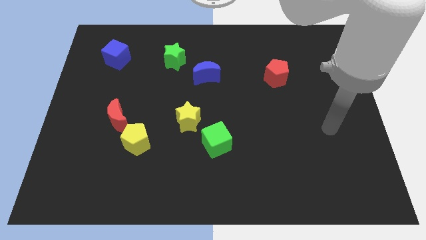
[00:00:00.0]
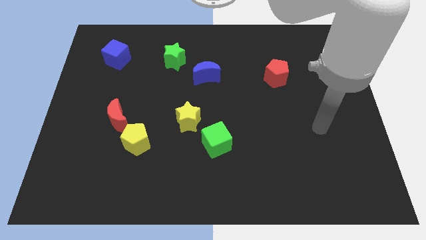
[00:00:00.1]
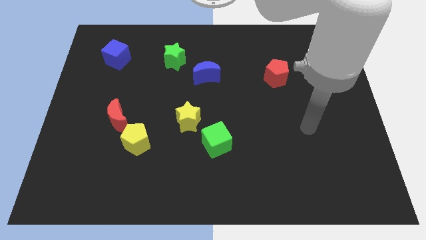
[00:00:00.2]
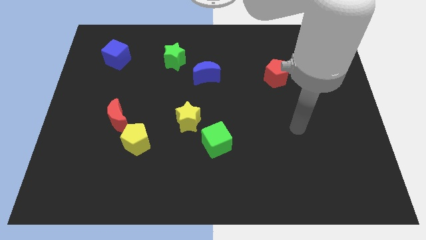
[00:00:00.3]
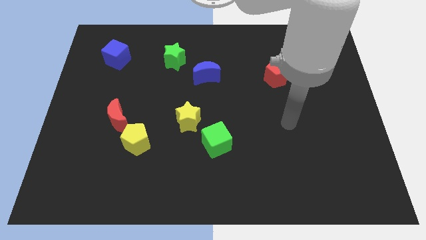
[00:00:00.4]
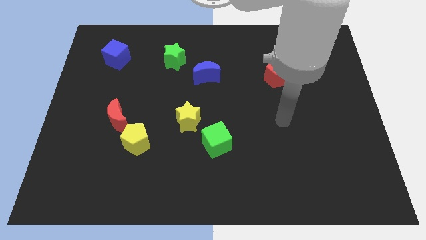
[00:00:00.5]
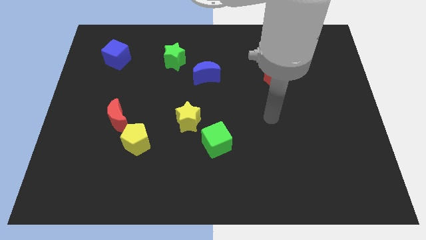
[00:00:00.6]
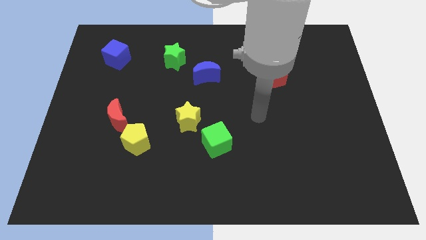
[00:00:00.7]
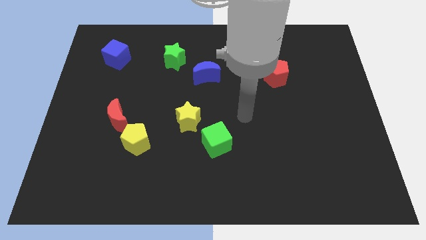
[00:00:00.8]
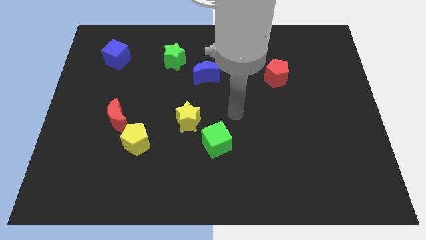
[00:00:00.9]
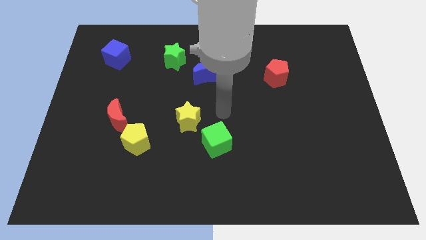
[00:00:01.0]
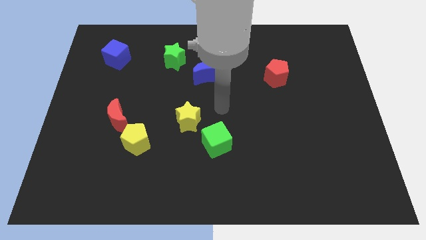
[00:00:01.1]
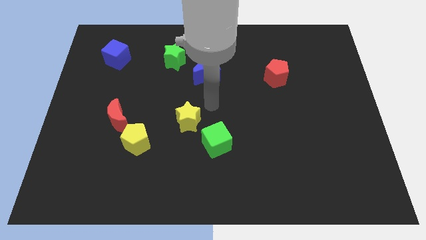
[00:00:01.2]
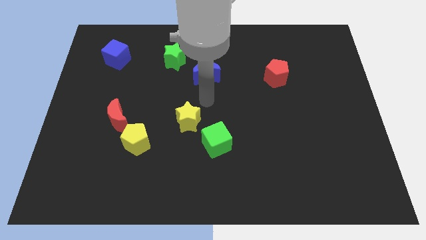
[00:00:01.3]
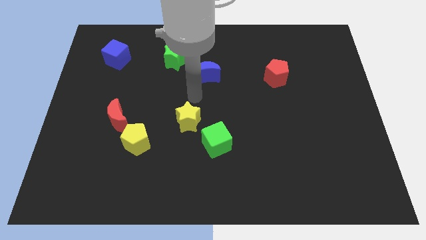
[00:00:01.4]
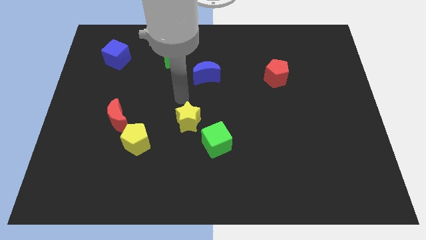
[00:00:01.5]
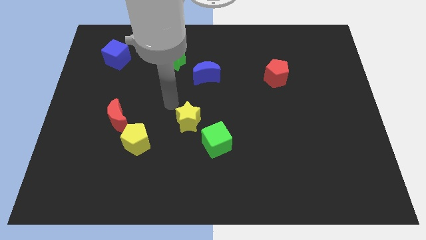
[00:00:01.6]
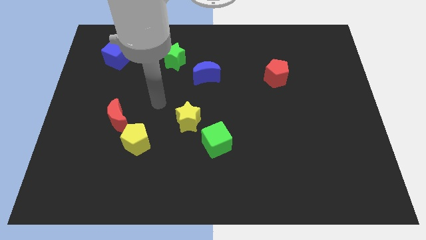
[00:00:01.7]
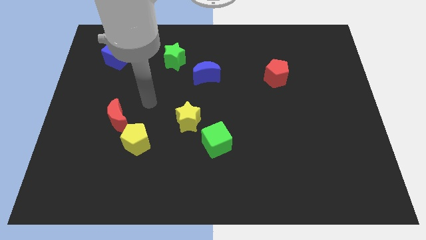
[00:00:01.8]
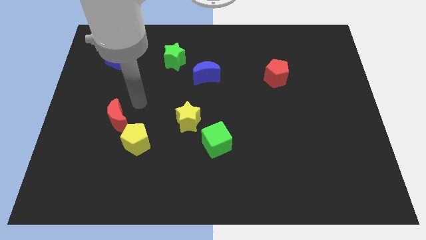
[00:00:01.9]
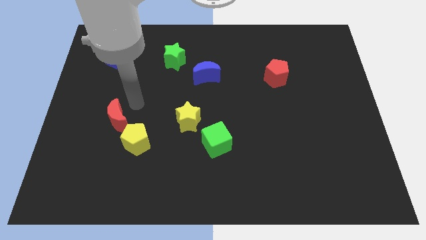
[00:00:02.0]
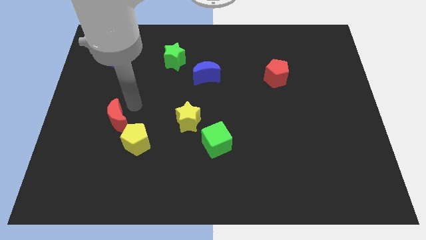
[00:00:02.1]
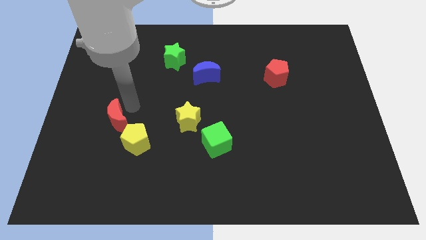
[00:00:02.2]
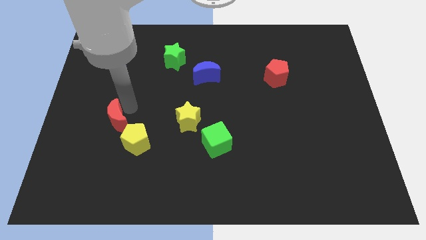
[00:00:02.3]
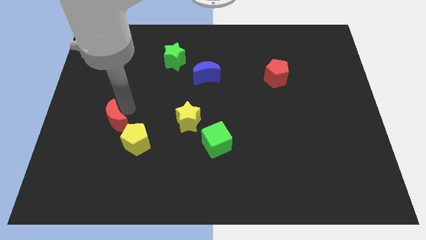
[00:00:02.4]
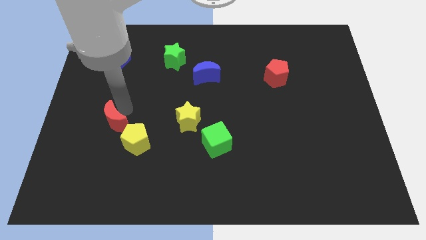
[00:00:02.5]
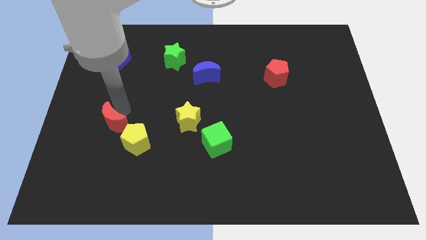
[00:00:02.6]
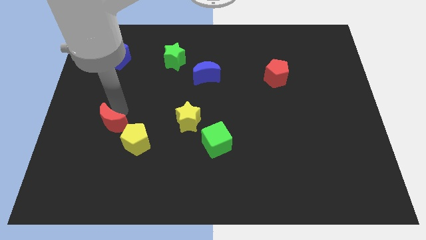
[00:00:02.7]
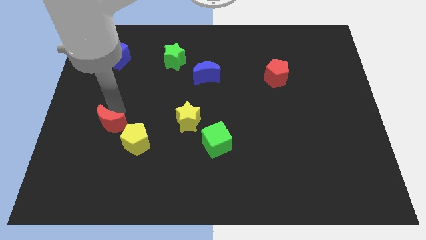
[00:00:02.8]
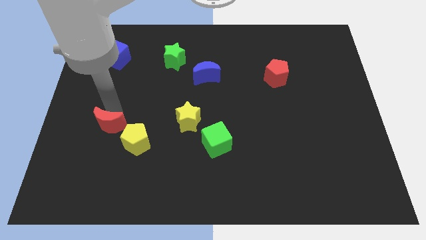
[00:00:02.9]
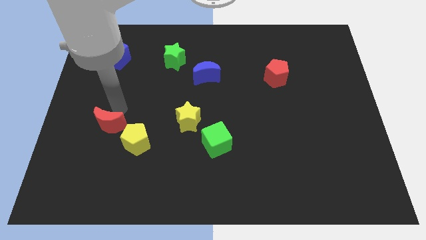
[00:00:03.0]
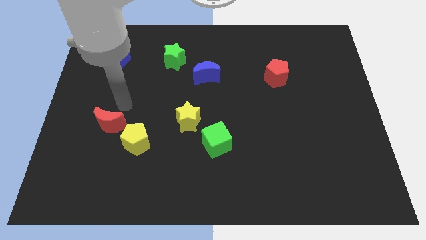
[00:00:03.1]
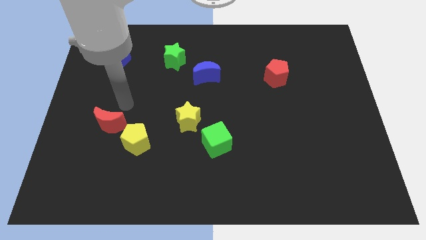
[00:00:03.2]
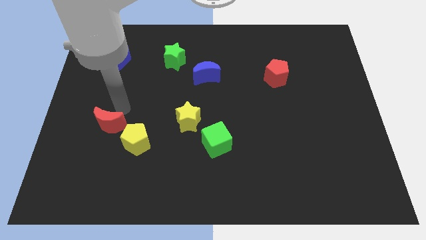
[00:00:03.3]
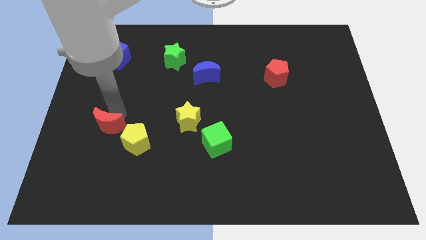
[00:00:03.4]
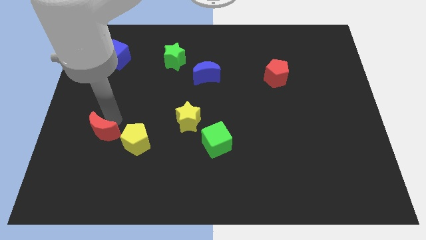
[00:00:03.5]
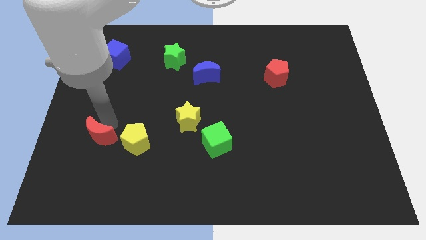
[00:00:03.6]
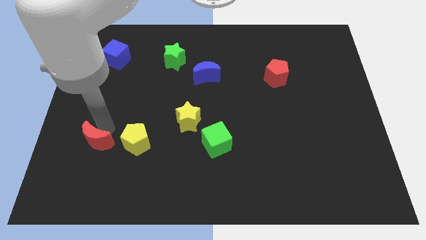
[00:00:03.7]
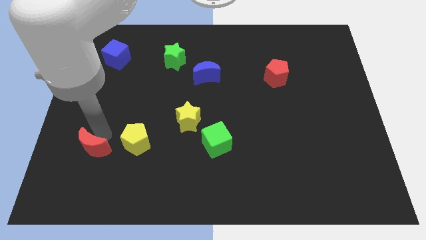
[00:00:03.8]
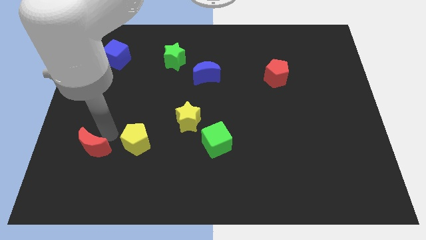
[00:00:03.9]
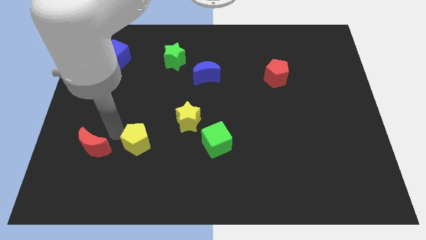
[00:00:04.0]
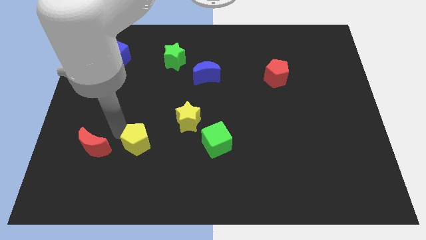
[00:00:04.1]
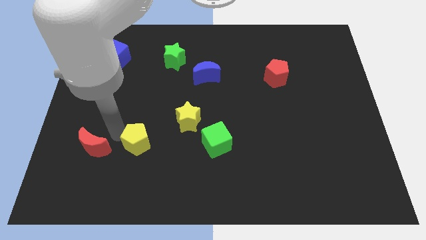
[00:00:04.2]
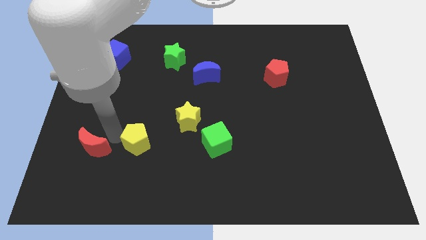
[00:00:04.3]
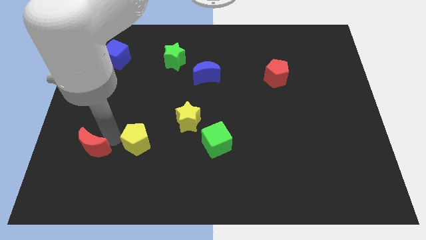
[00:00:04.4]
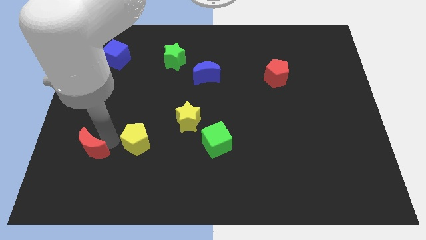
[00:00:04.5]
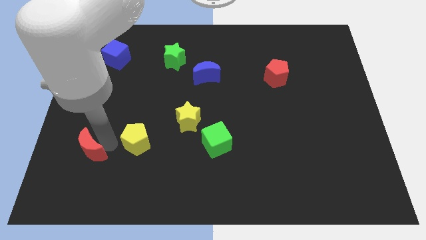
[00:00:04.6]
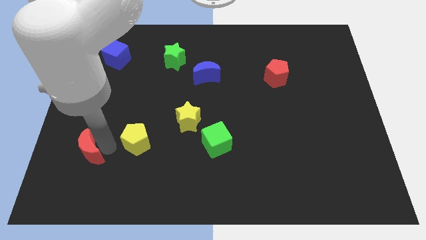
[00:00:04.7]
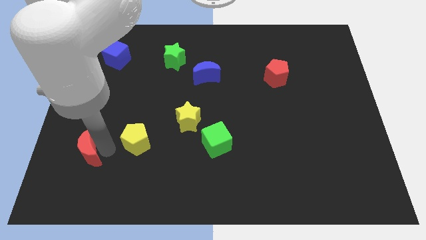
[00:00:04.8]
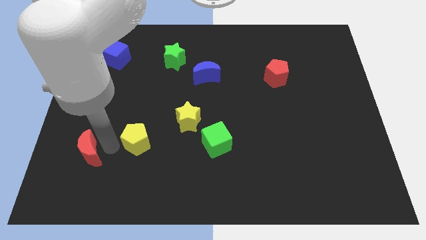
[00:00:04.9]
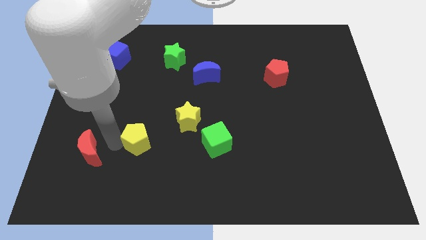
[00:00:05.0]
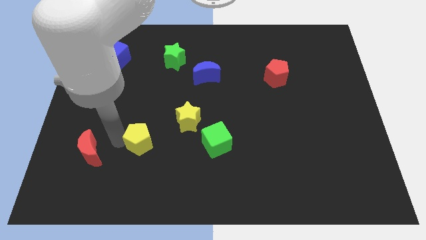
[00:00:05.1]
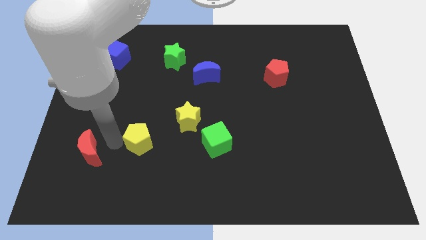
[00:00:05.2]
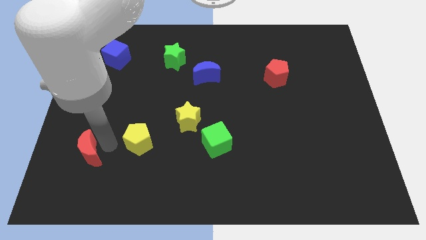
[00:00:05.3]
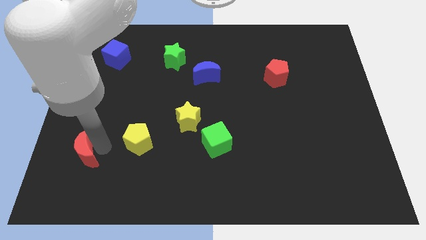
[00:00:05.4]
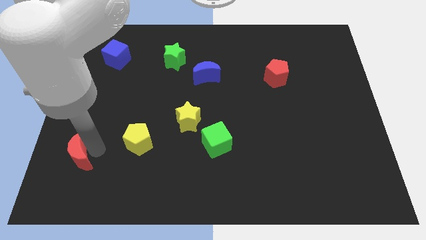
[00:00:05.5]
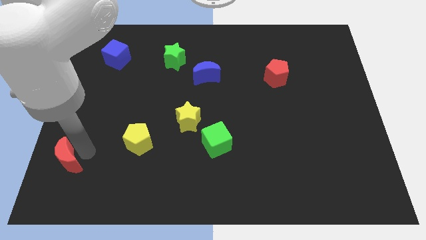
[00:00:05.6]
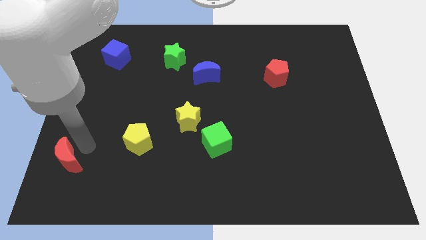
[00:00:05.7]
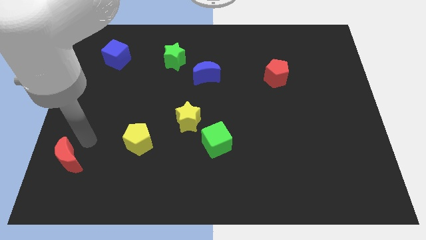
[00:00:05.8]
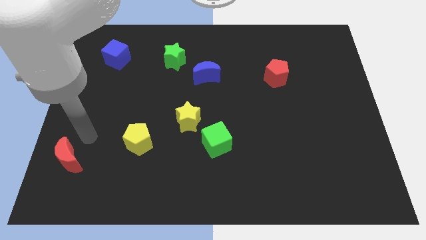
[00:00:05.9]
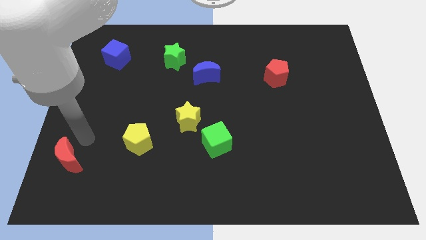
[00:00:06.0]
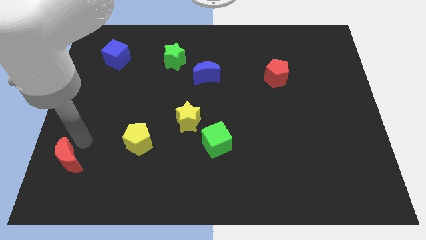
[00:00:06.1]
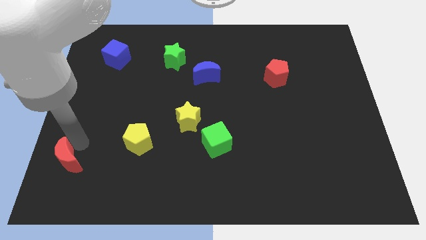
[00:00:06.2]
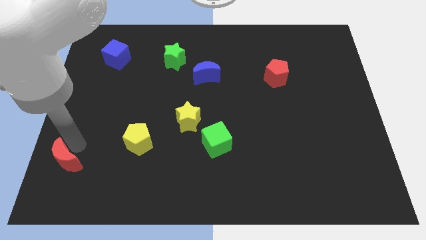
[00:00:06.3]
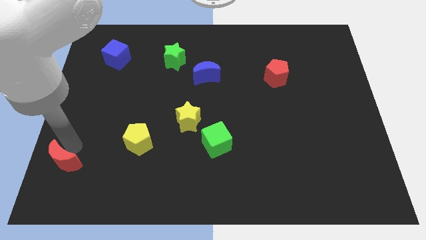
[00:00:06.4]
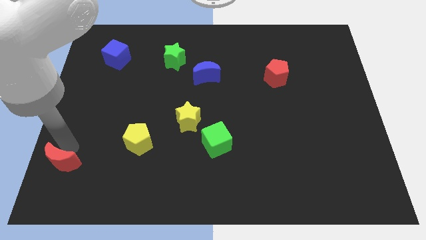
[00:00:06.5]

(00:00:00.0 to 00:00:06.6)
move the red moon to the bottom left of the board
